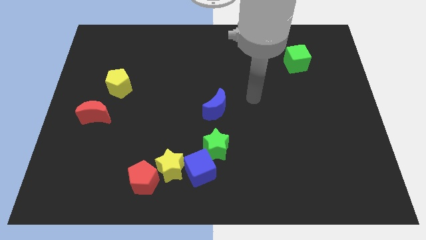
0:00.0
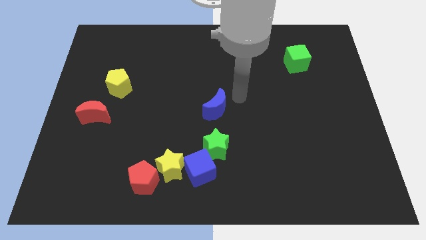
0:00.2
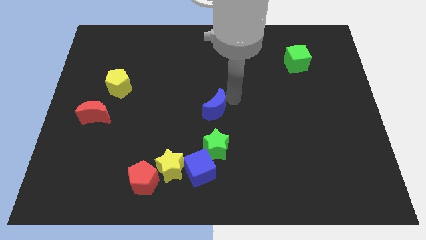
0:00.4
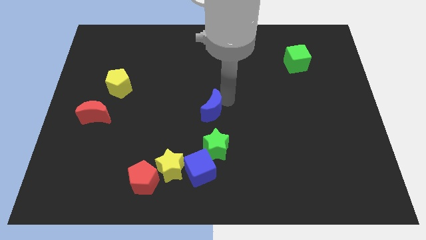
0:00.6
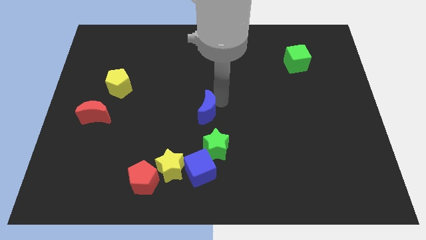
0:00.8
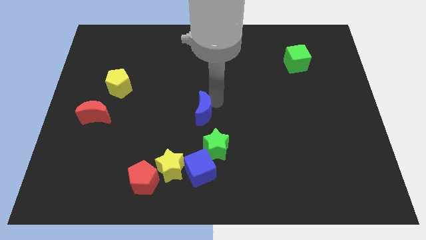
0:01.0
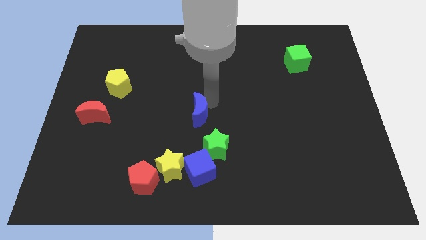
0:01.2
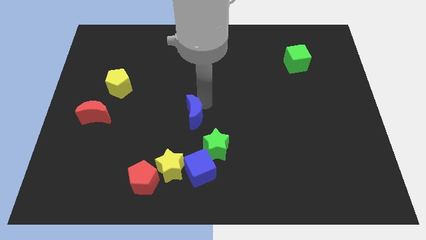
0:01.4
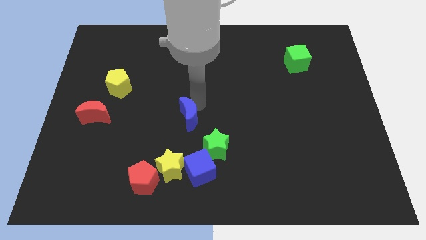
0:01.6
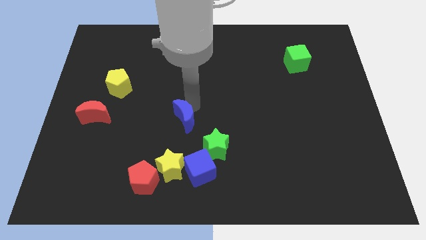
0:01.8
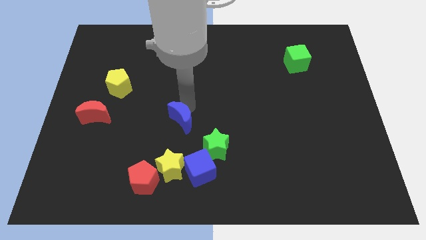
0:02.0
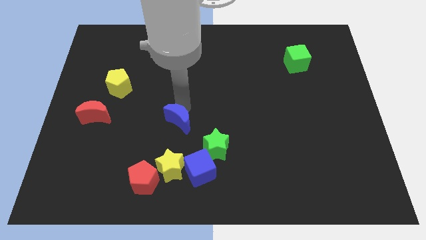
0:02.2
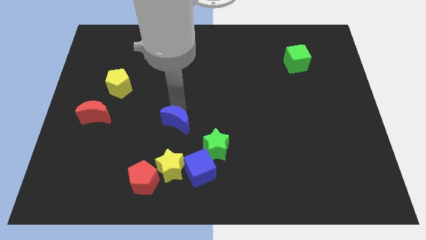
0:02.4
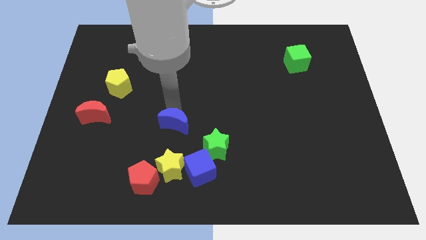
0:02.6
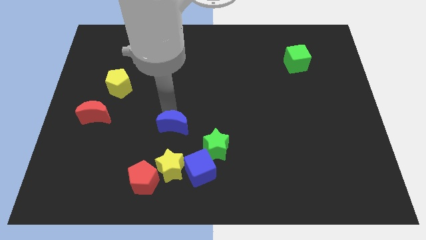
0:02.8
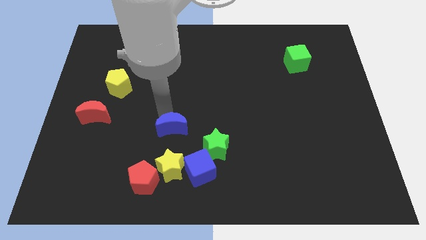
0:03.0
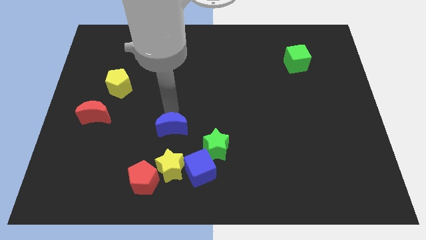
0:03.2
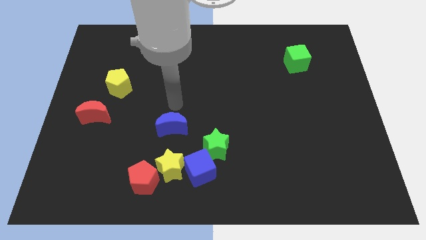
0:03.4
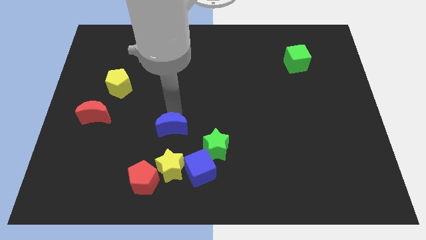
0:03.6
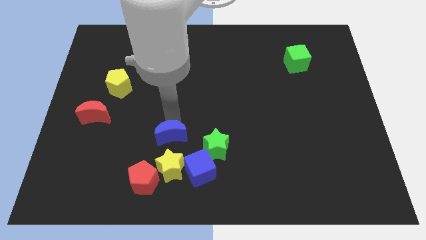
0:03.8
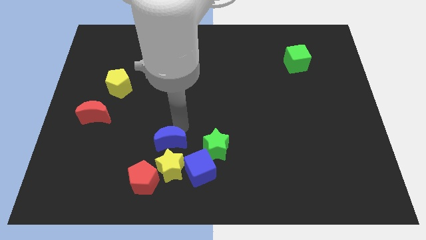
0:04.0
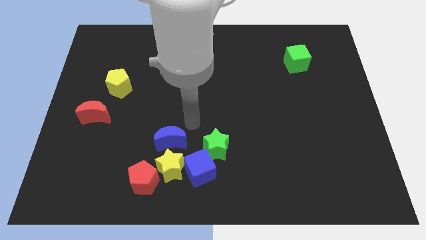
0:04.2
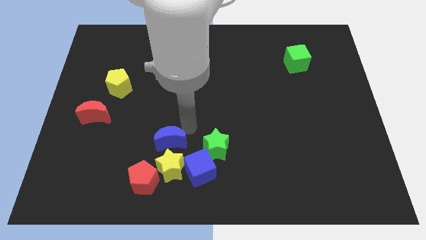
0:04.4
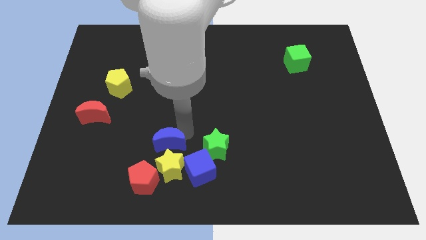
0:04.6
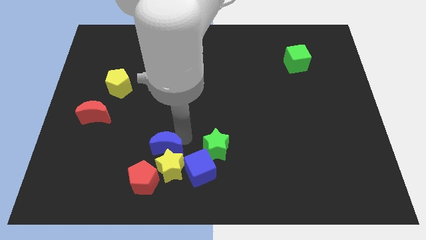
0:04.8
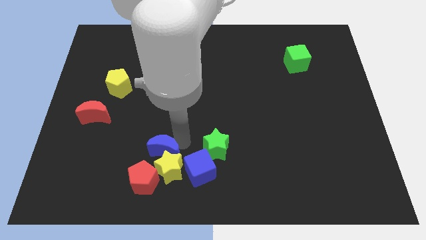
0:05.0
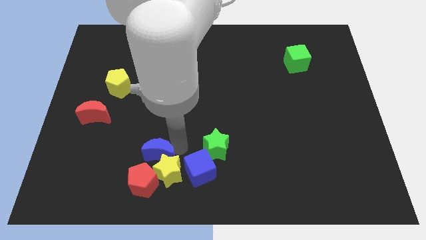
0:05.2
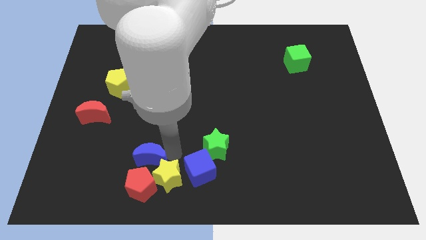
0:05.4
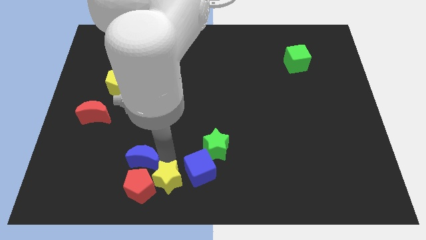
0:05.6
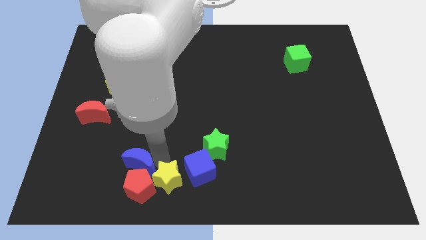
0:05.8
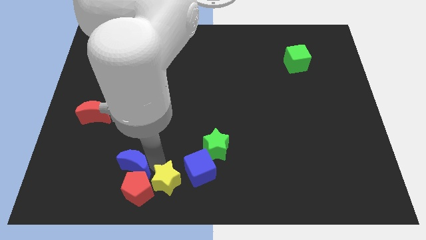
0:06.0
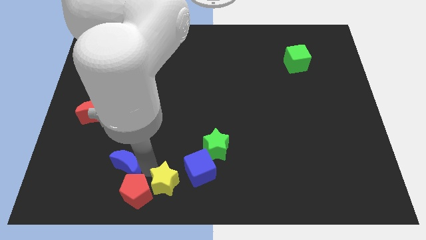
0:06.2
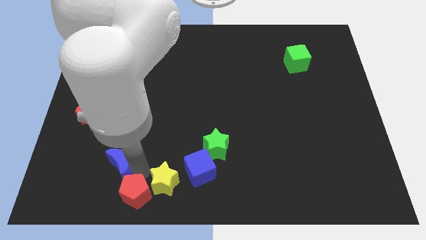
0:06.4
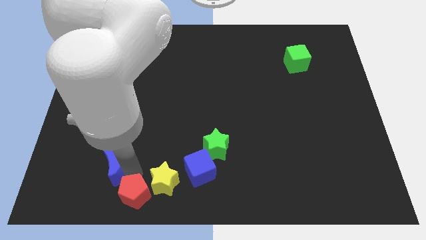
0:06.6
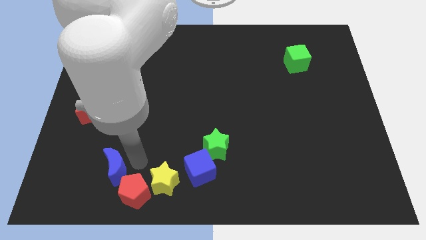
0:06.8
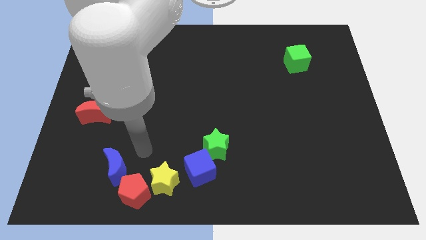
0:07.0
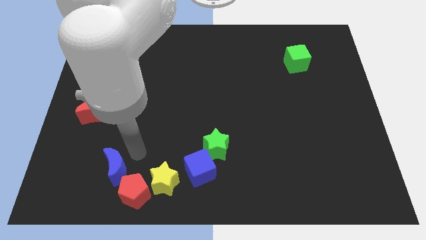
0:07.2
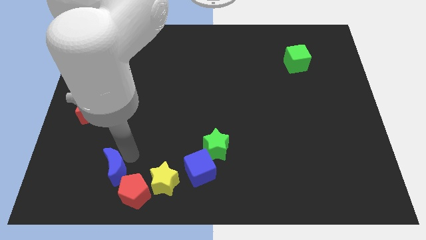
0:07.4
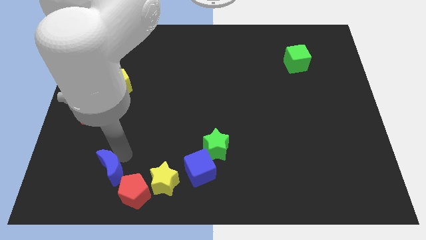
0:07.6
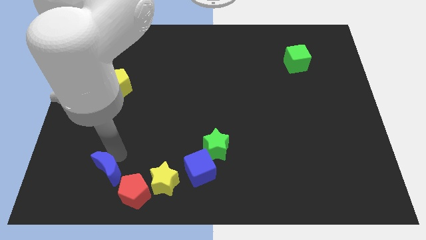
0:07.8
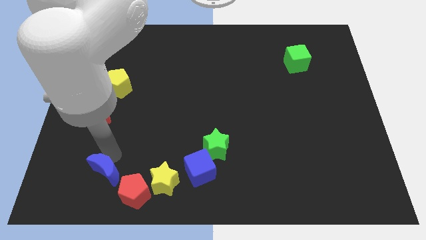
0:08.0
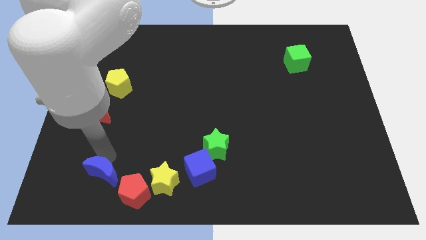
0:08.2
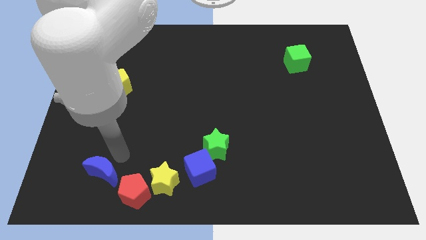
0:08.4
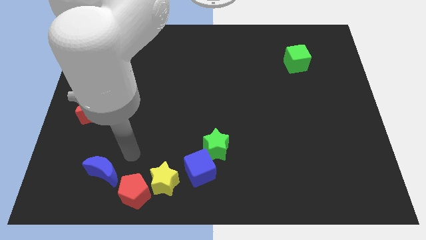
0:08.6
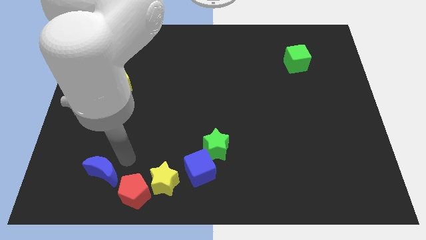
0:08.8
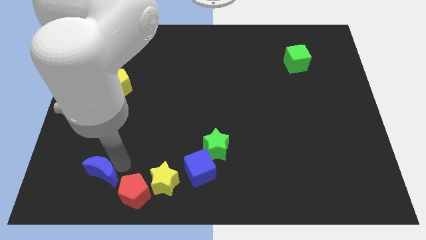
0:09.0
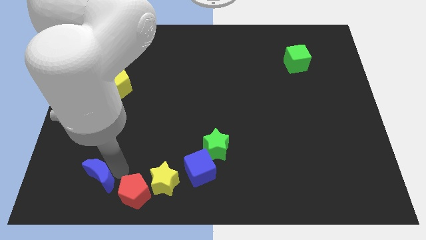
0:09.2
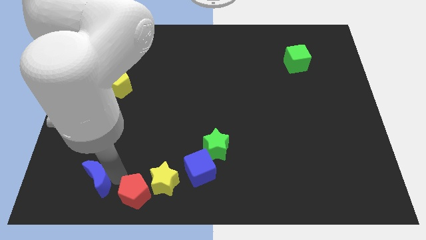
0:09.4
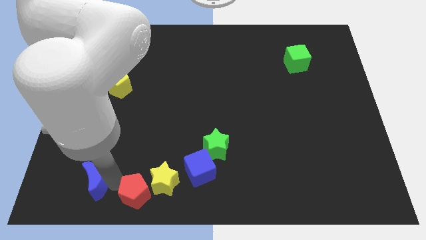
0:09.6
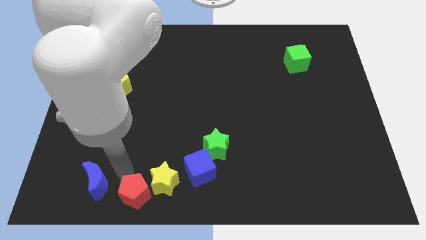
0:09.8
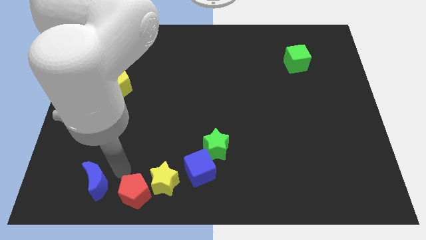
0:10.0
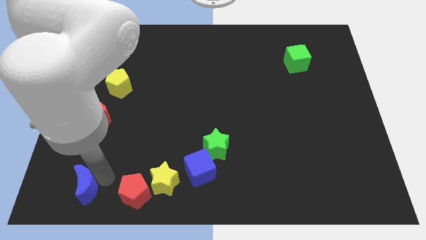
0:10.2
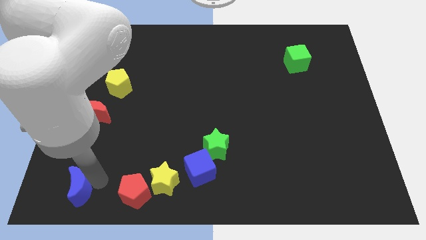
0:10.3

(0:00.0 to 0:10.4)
push the blue moon to the bottom left

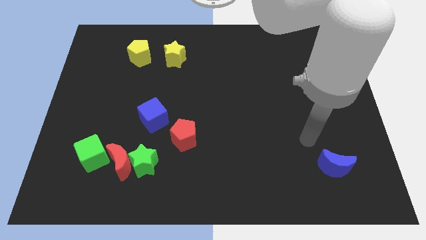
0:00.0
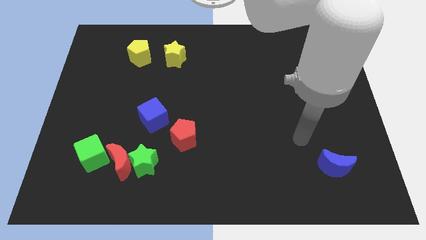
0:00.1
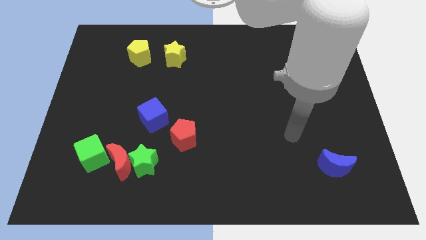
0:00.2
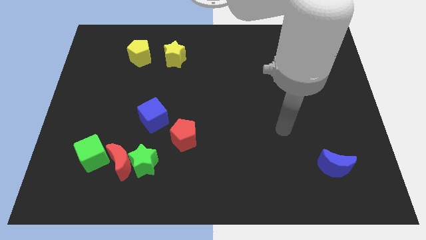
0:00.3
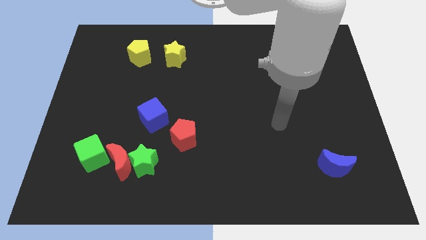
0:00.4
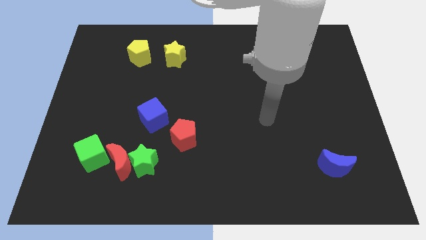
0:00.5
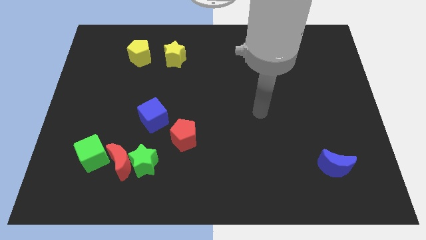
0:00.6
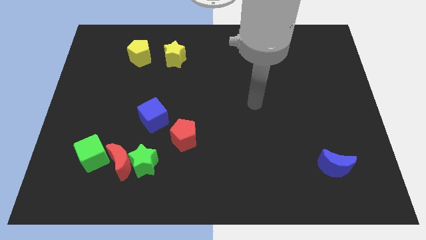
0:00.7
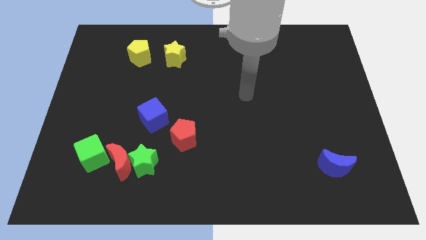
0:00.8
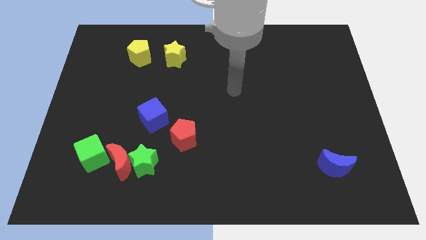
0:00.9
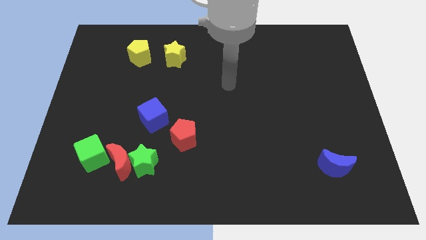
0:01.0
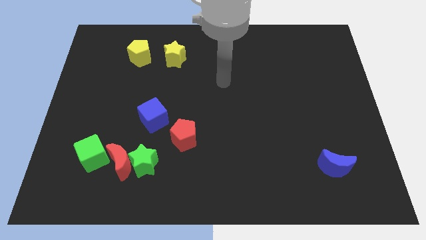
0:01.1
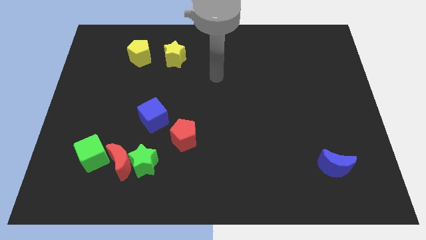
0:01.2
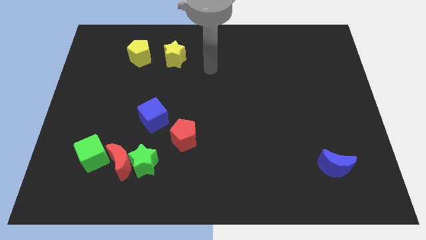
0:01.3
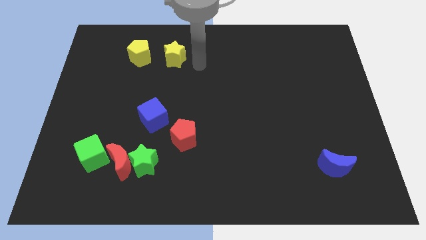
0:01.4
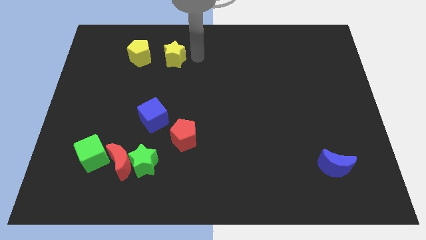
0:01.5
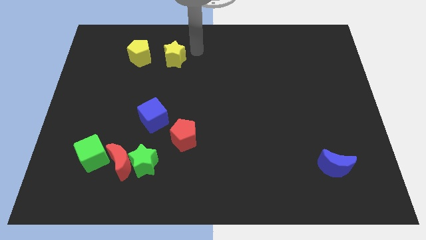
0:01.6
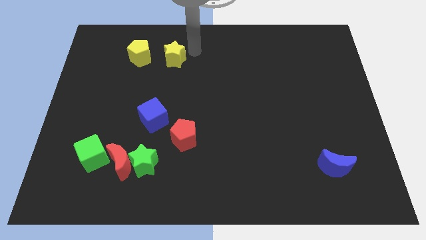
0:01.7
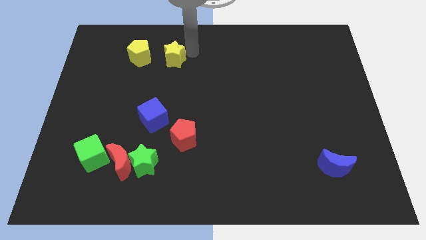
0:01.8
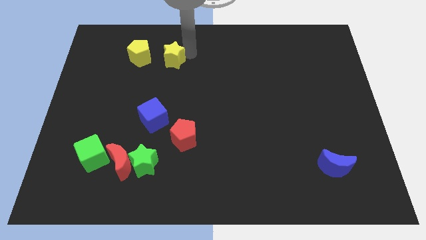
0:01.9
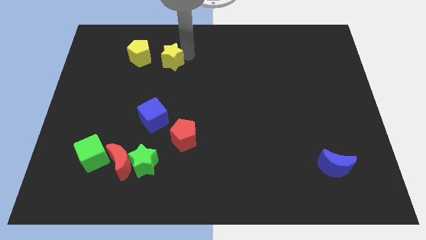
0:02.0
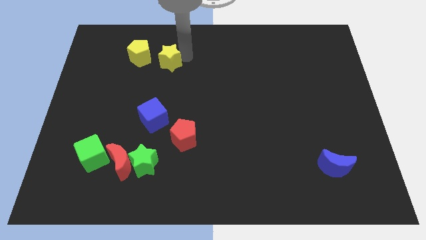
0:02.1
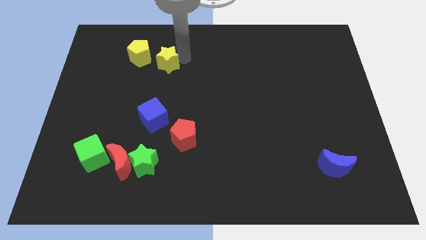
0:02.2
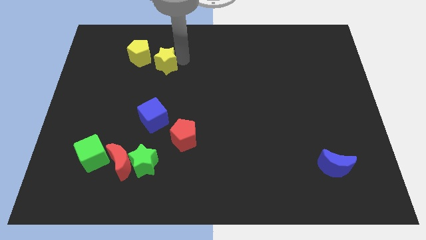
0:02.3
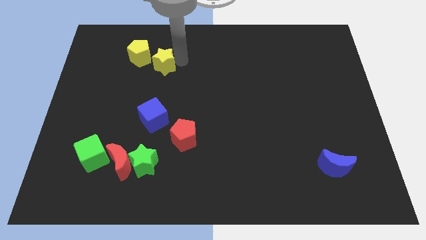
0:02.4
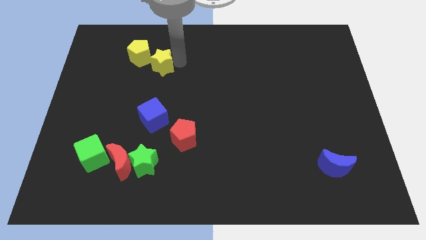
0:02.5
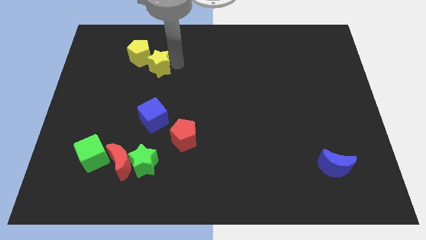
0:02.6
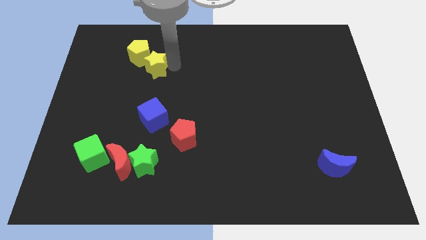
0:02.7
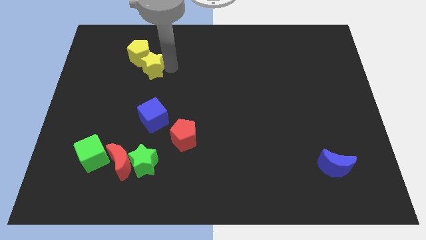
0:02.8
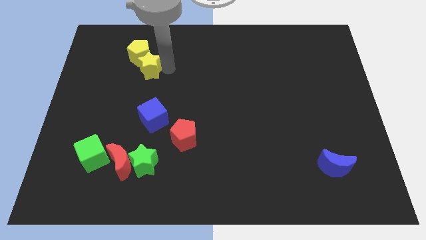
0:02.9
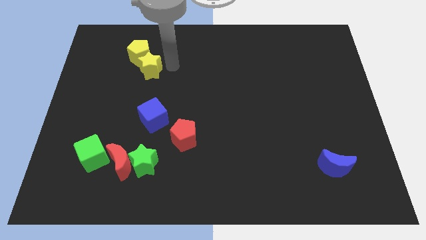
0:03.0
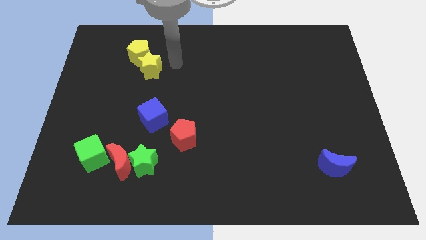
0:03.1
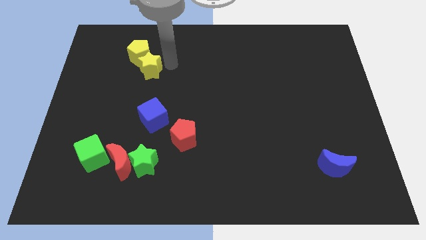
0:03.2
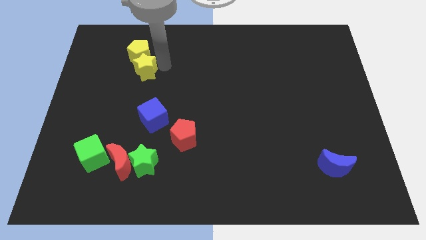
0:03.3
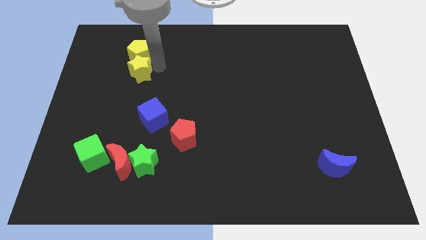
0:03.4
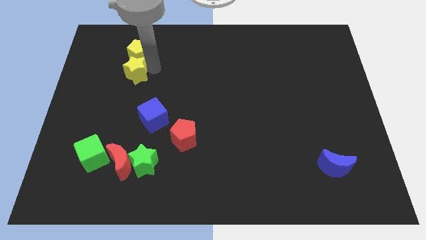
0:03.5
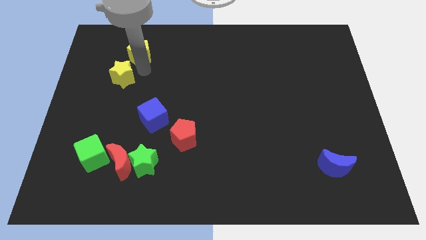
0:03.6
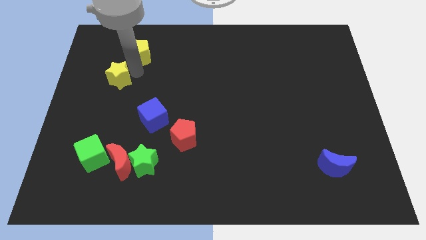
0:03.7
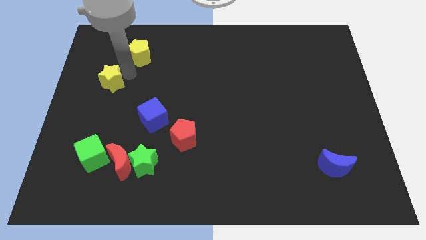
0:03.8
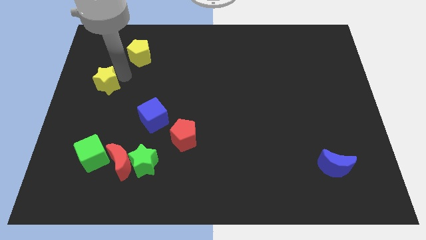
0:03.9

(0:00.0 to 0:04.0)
put the yellow star to the center left
